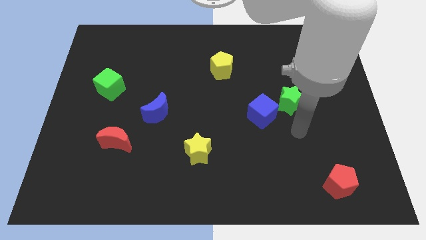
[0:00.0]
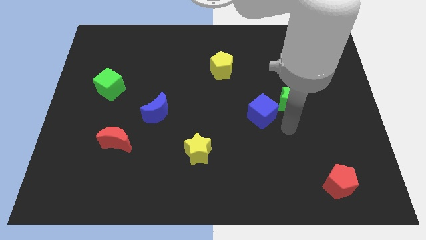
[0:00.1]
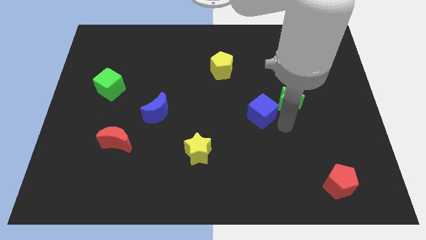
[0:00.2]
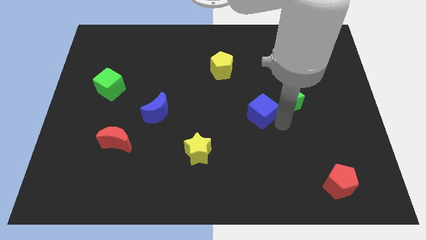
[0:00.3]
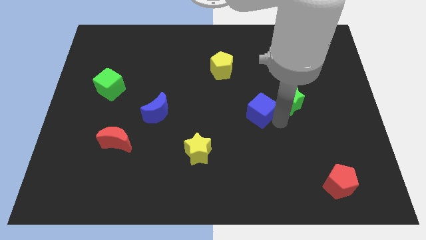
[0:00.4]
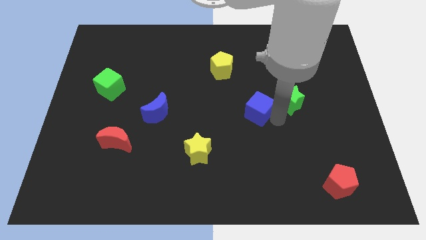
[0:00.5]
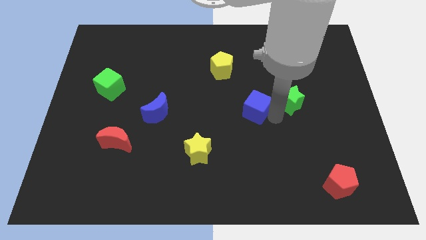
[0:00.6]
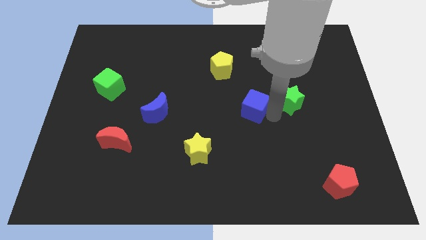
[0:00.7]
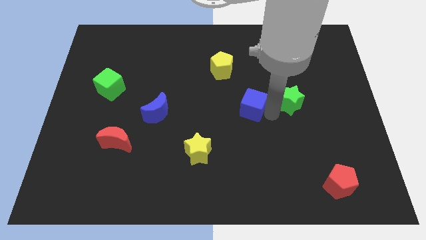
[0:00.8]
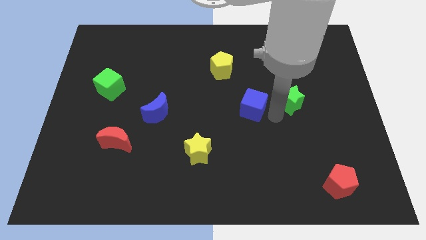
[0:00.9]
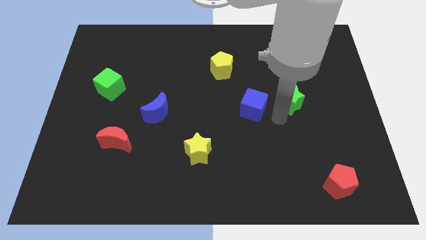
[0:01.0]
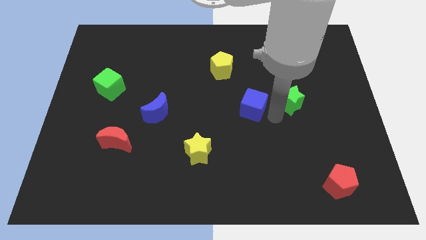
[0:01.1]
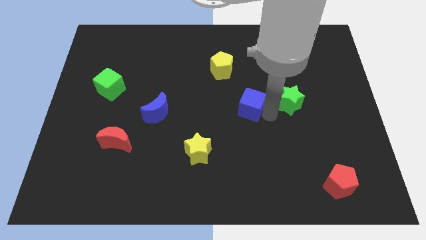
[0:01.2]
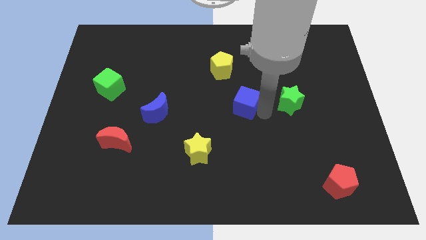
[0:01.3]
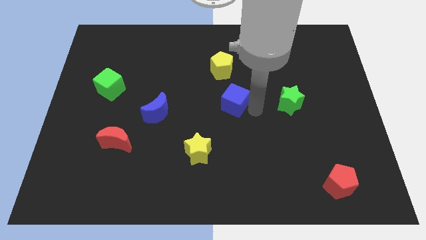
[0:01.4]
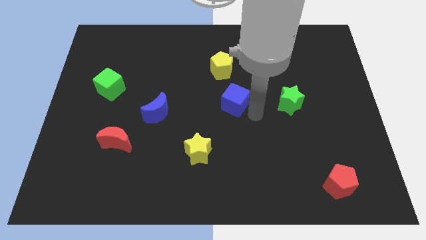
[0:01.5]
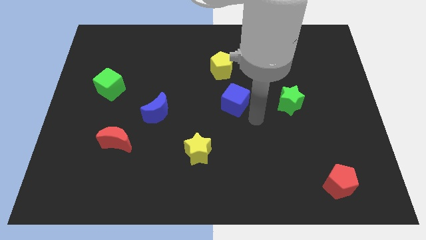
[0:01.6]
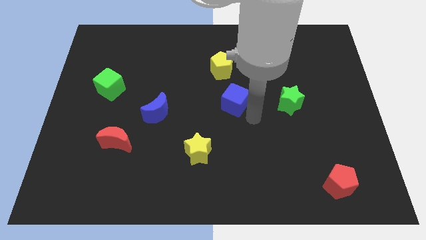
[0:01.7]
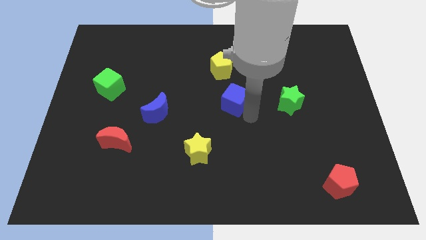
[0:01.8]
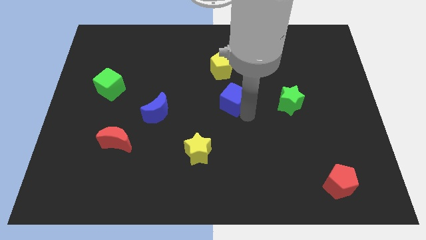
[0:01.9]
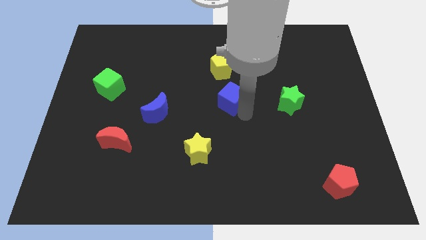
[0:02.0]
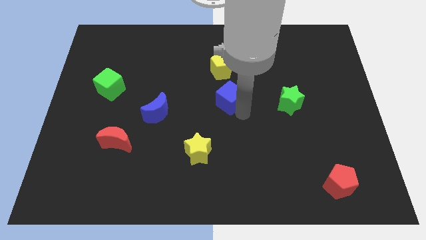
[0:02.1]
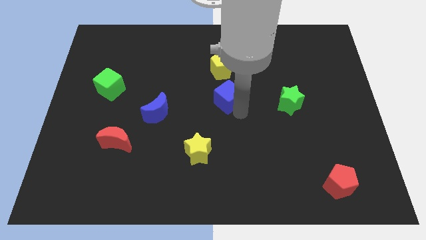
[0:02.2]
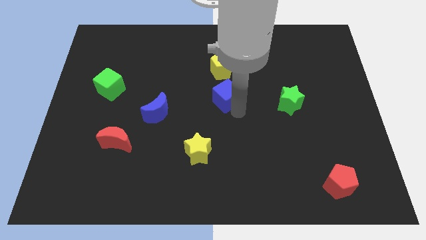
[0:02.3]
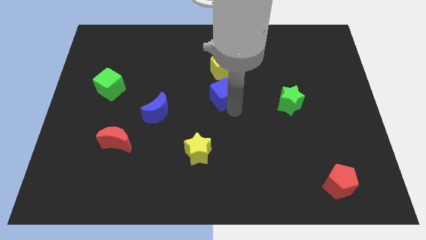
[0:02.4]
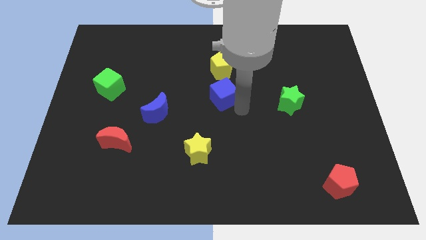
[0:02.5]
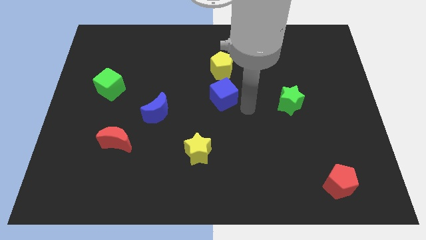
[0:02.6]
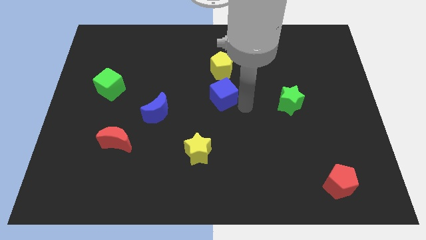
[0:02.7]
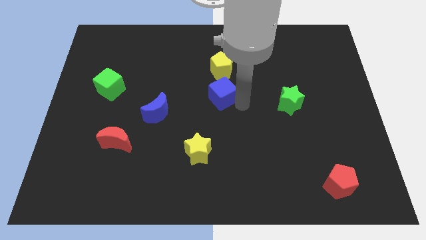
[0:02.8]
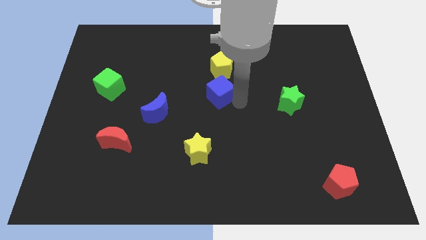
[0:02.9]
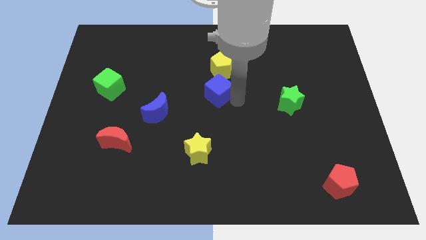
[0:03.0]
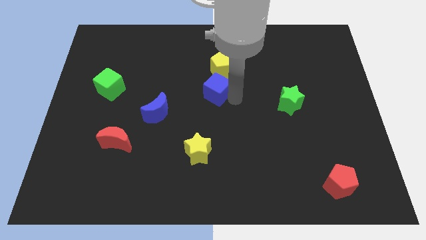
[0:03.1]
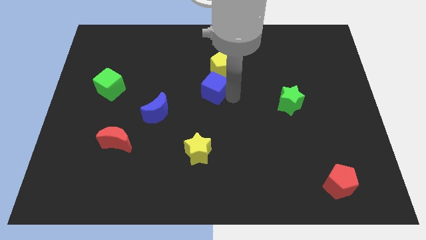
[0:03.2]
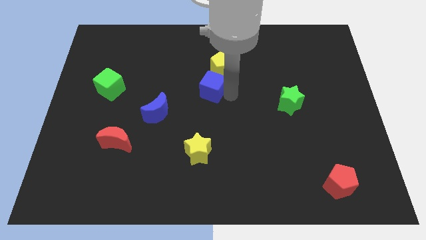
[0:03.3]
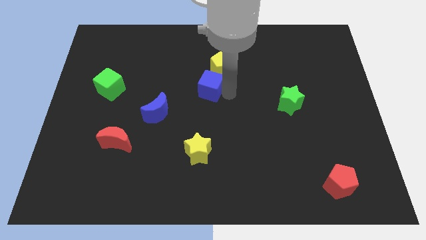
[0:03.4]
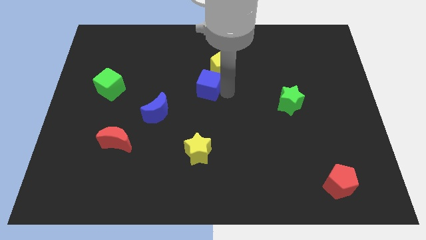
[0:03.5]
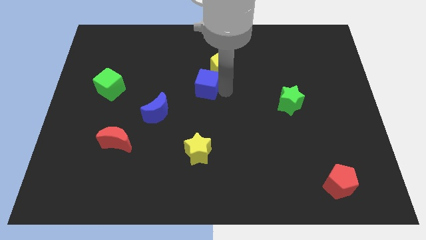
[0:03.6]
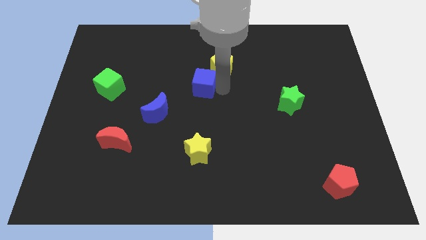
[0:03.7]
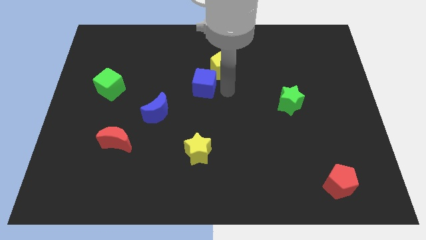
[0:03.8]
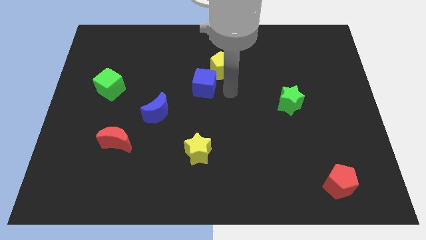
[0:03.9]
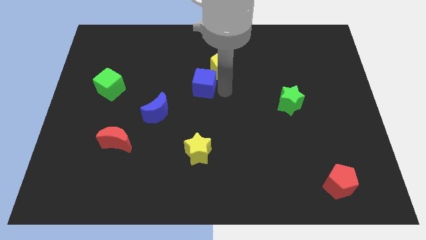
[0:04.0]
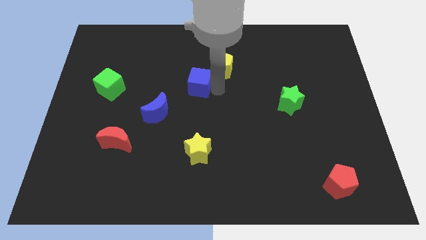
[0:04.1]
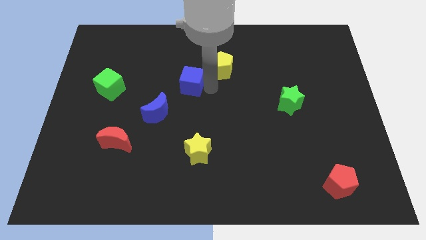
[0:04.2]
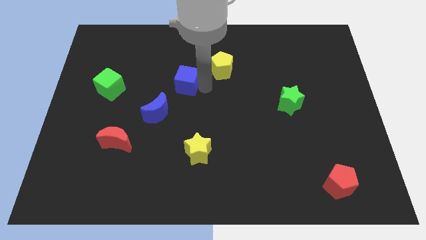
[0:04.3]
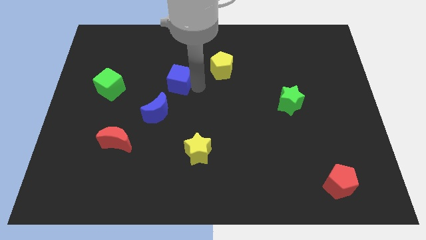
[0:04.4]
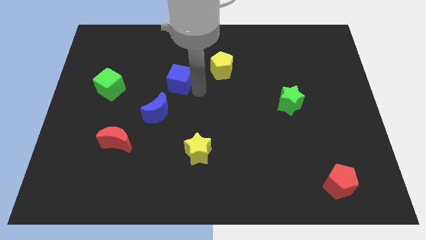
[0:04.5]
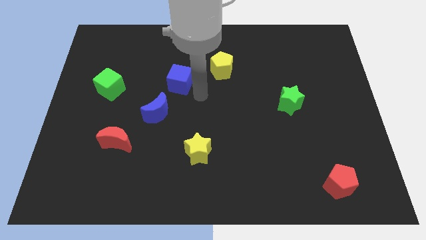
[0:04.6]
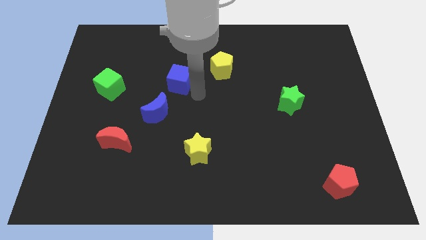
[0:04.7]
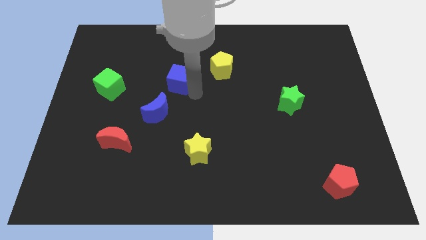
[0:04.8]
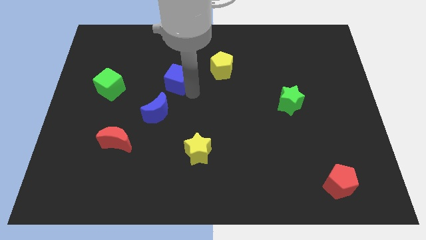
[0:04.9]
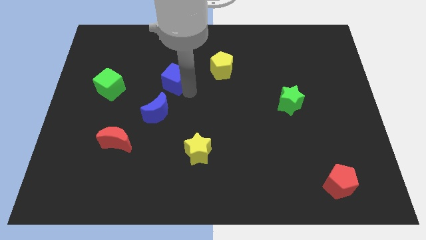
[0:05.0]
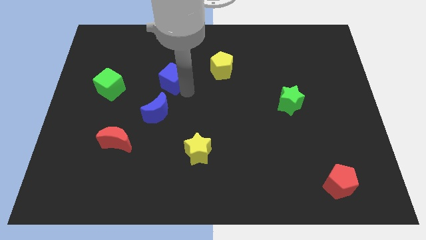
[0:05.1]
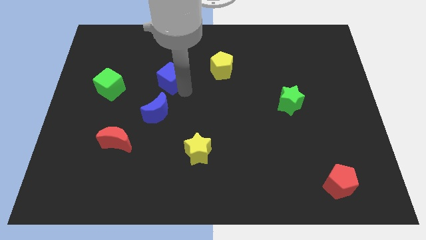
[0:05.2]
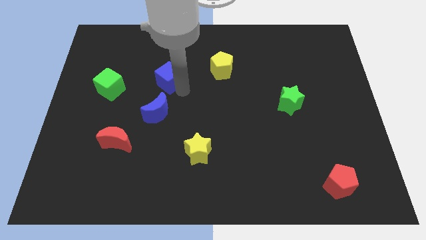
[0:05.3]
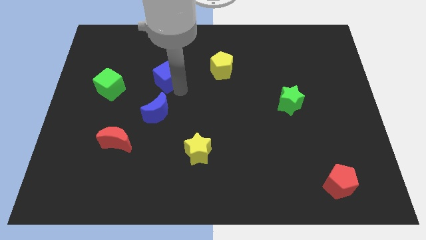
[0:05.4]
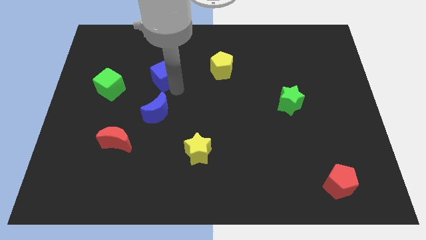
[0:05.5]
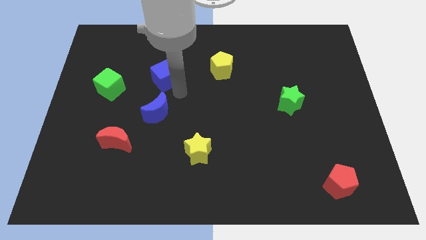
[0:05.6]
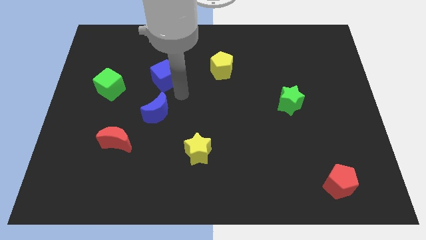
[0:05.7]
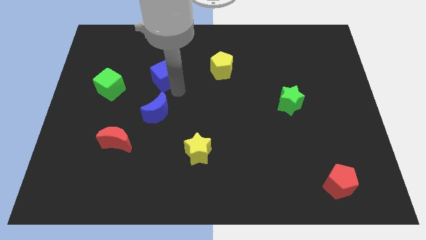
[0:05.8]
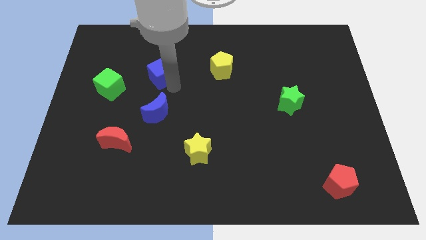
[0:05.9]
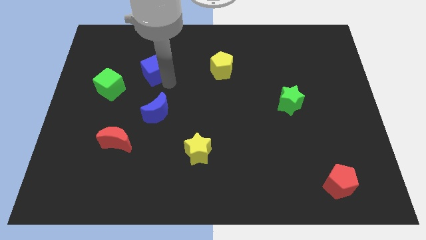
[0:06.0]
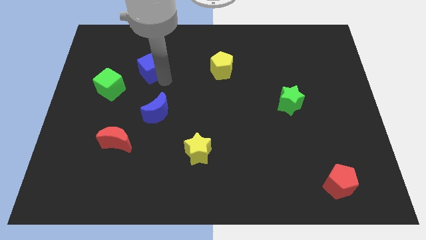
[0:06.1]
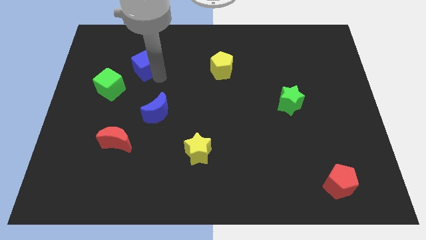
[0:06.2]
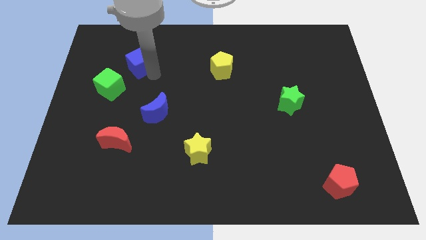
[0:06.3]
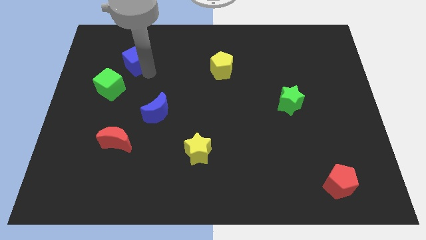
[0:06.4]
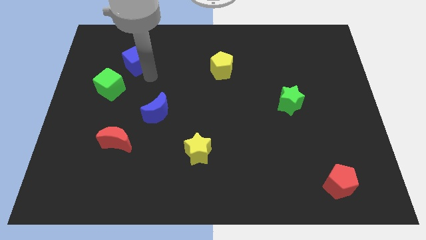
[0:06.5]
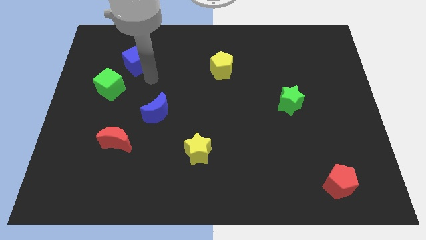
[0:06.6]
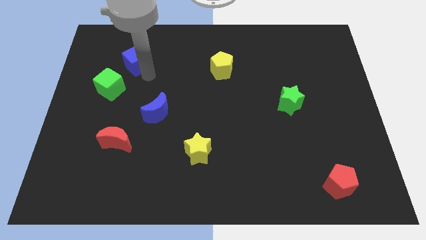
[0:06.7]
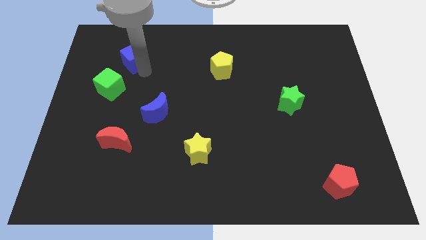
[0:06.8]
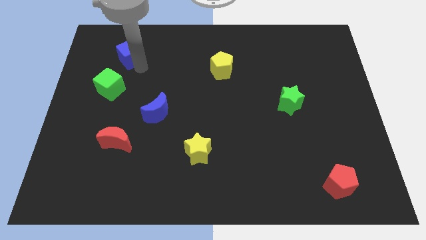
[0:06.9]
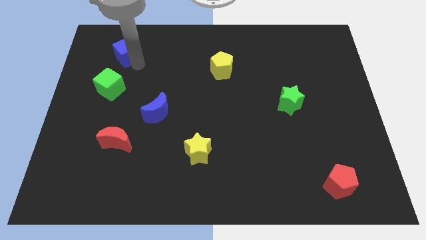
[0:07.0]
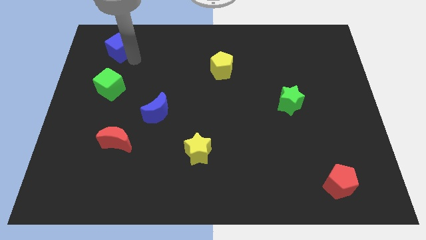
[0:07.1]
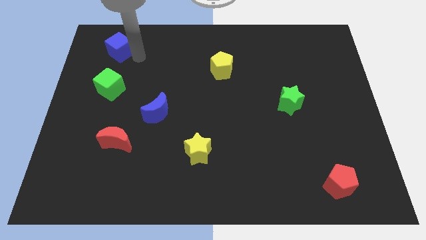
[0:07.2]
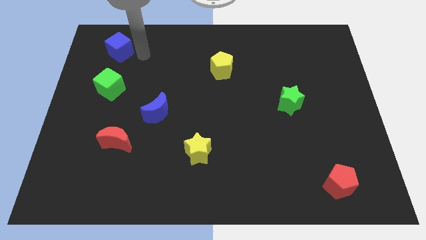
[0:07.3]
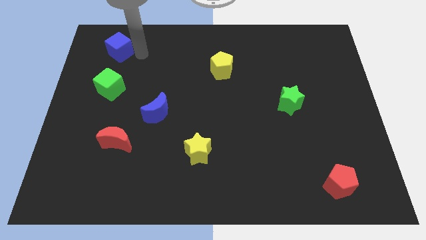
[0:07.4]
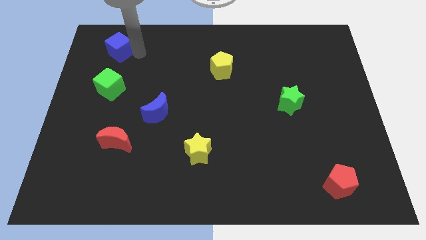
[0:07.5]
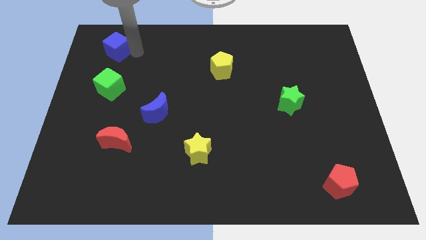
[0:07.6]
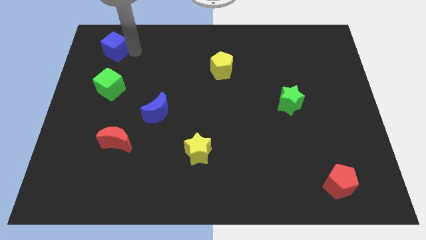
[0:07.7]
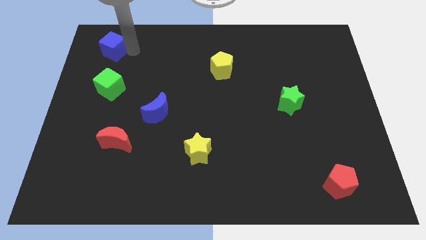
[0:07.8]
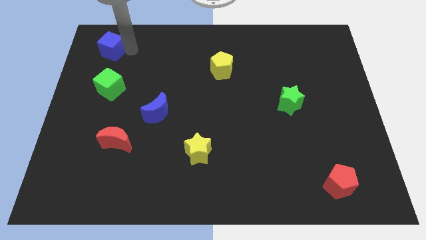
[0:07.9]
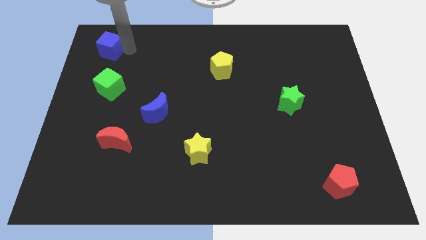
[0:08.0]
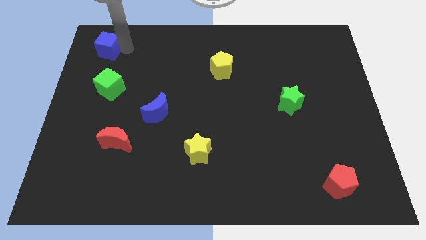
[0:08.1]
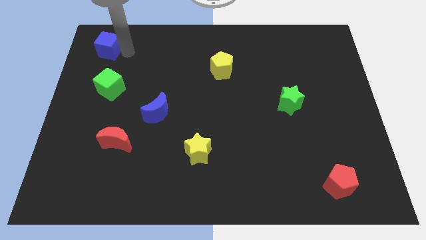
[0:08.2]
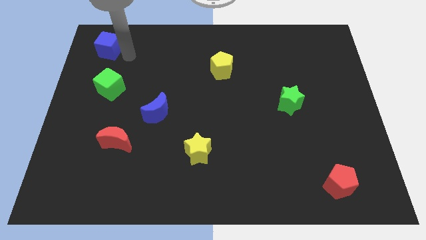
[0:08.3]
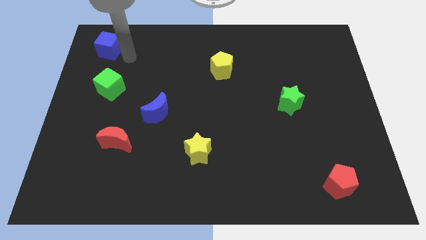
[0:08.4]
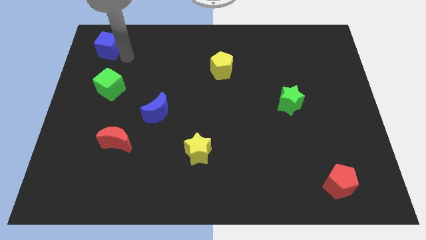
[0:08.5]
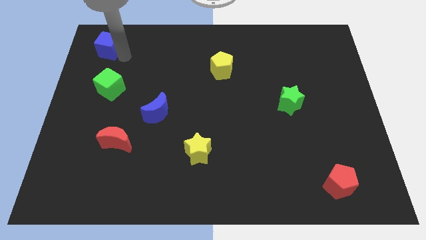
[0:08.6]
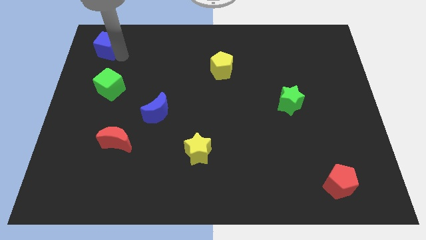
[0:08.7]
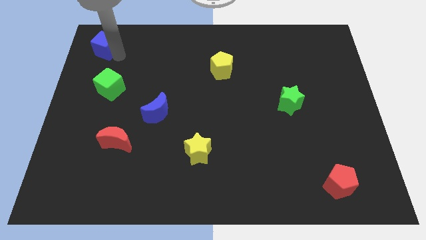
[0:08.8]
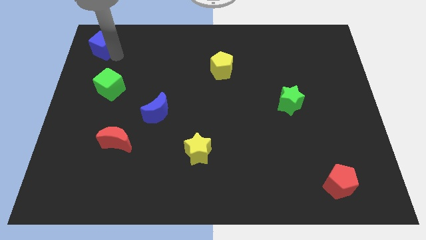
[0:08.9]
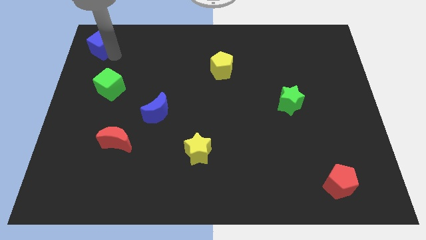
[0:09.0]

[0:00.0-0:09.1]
put the blue cube to the upper left corner
